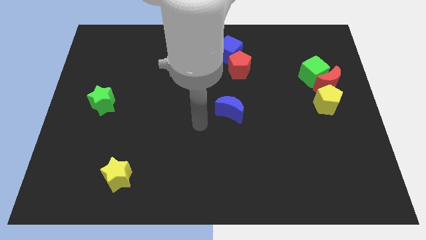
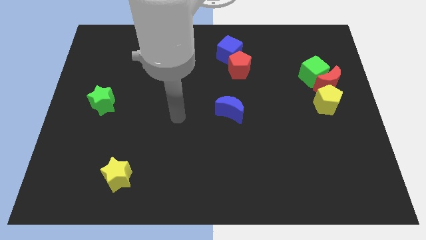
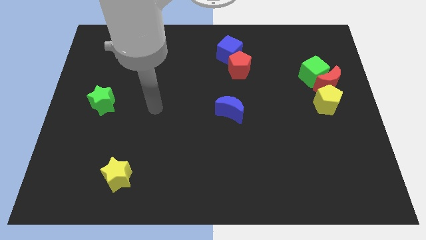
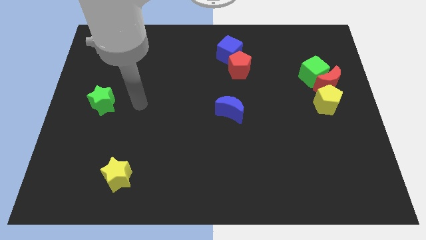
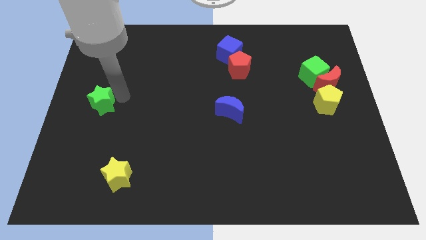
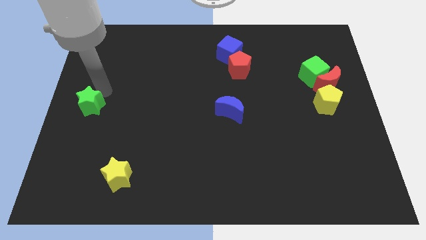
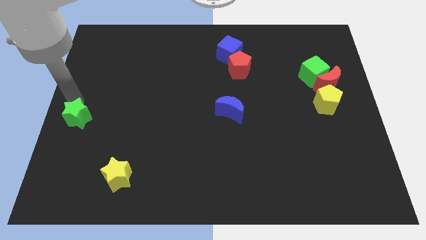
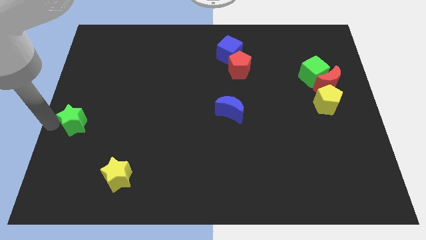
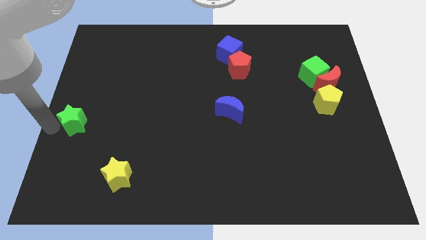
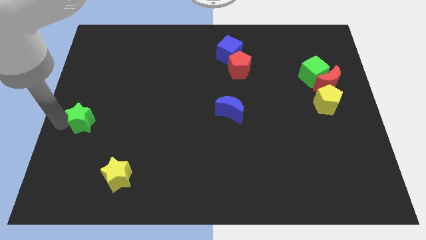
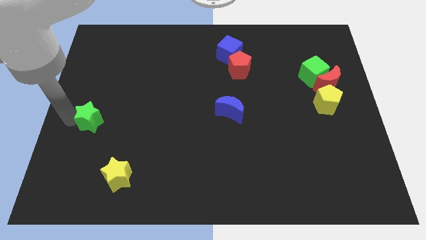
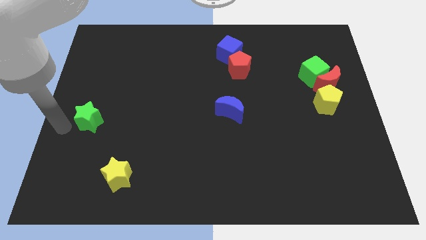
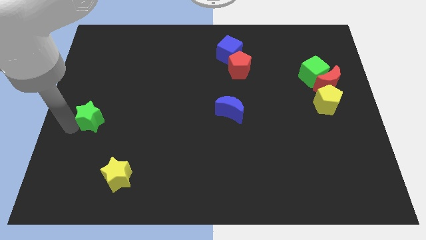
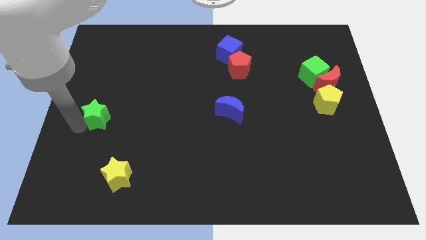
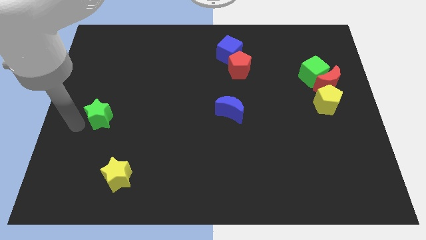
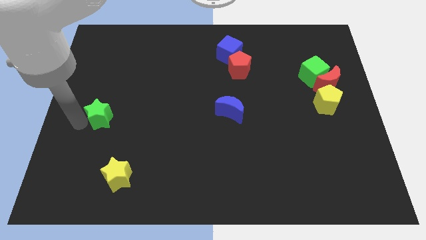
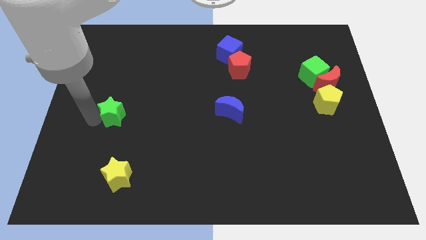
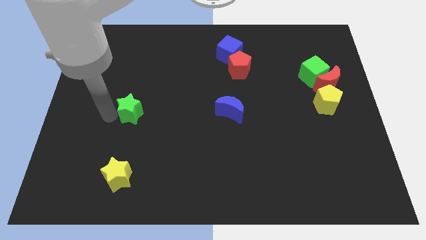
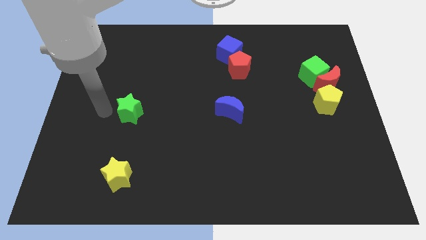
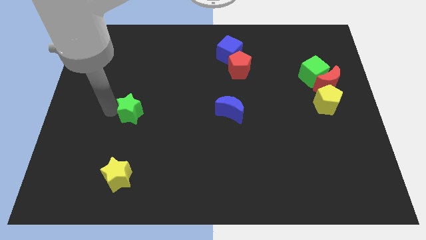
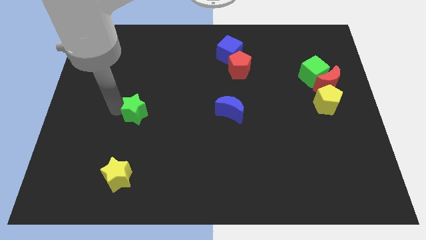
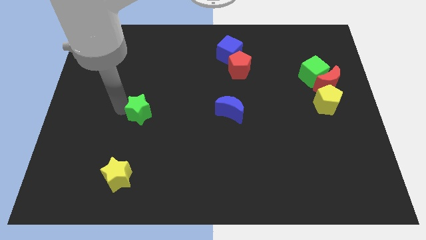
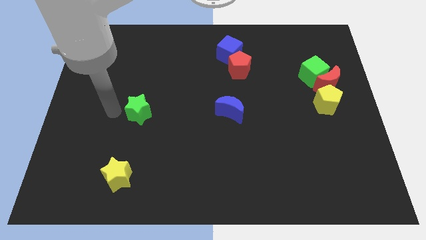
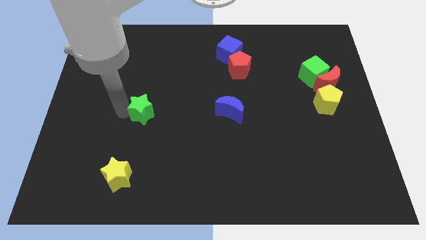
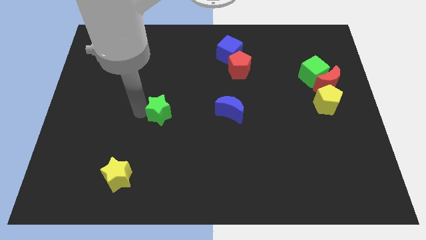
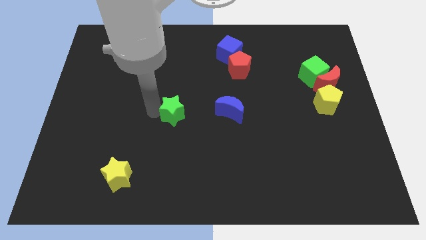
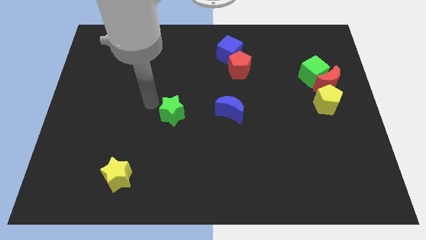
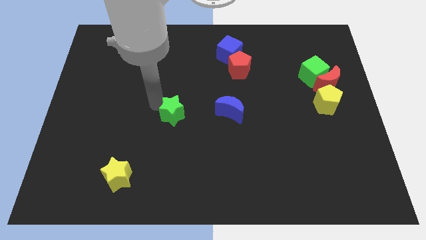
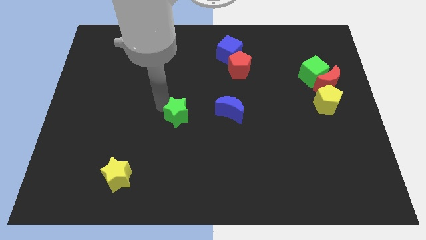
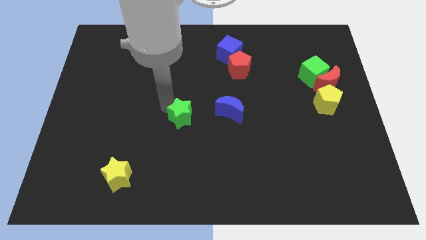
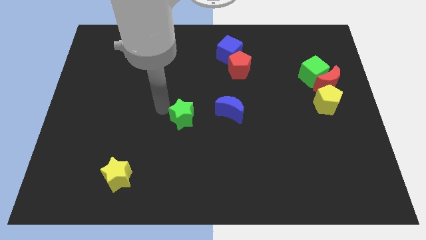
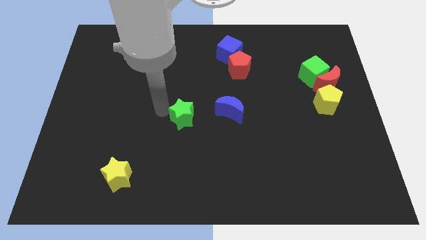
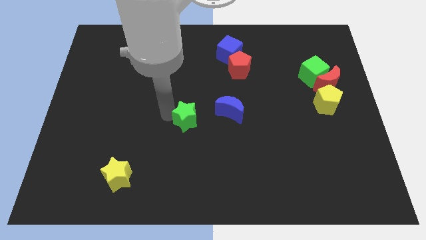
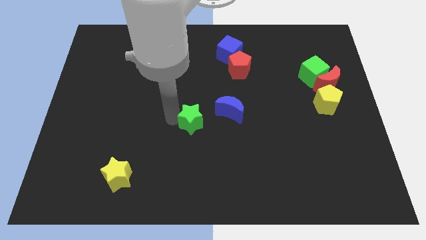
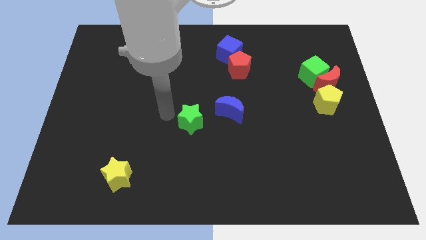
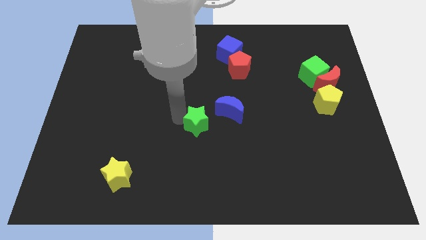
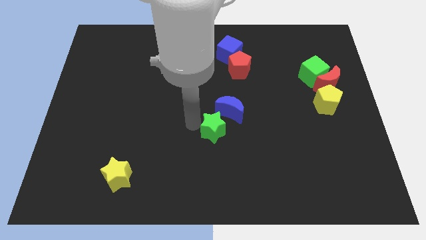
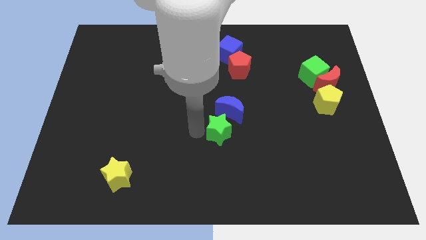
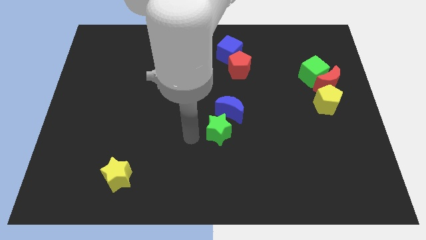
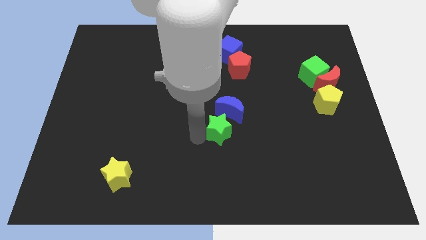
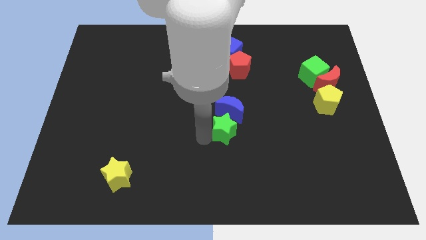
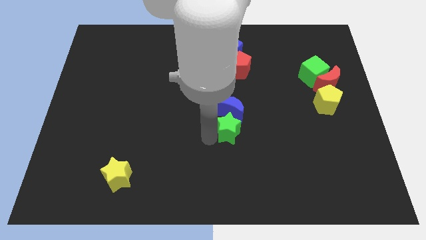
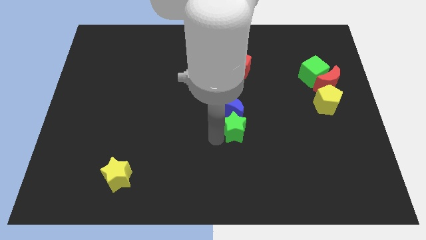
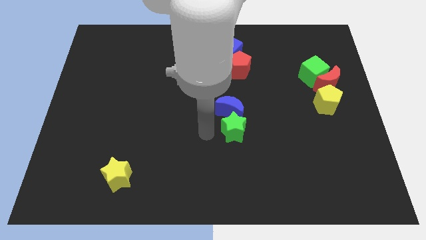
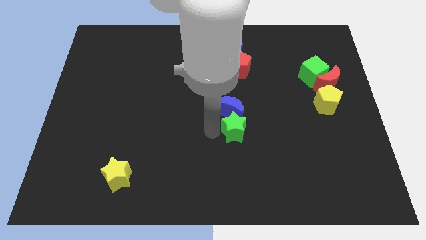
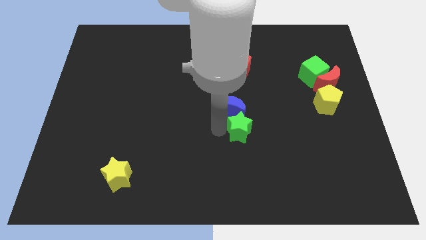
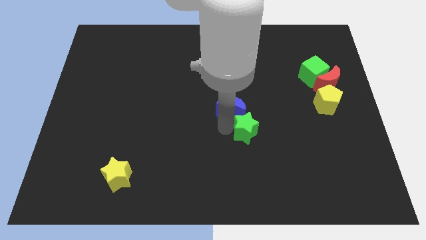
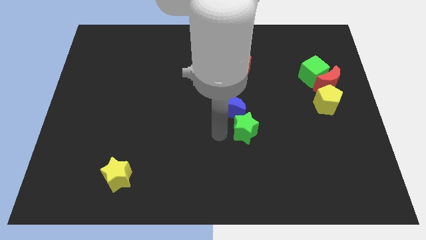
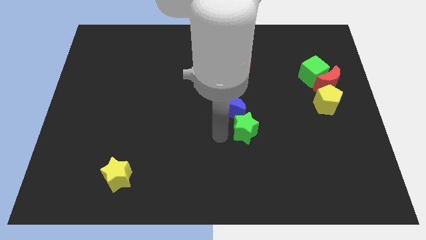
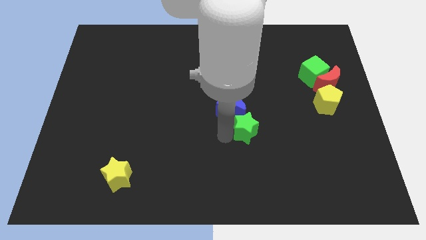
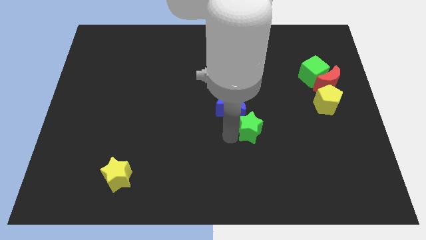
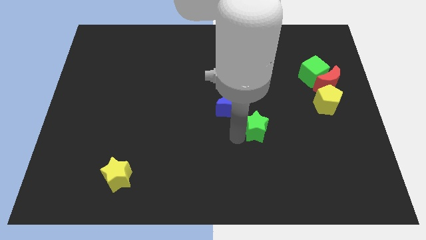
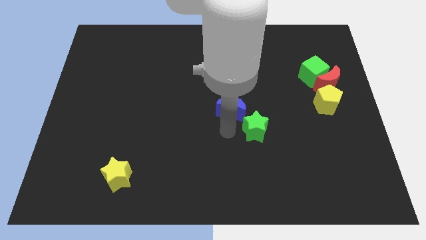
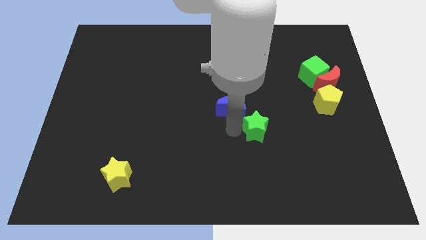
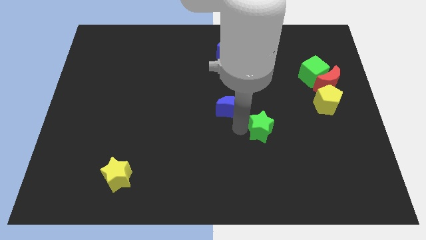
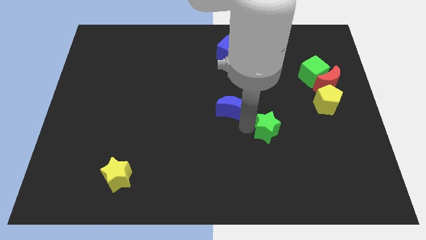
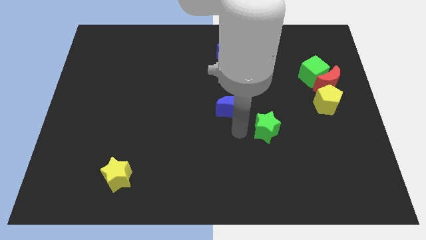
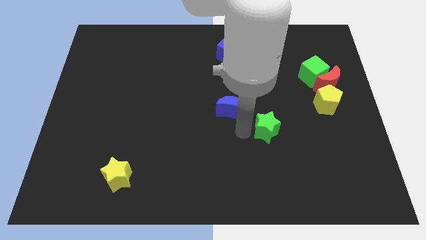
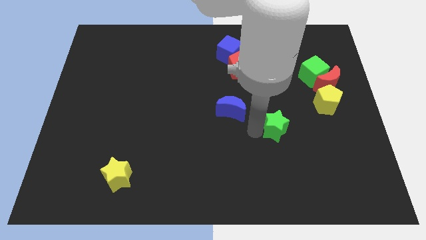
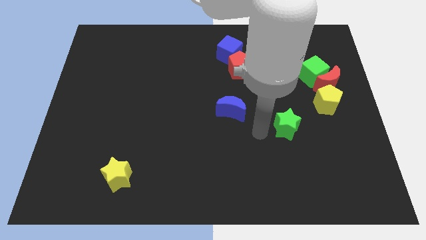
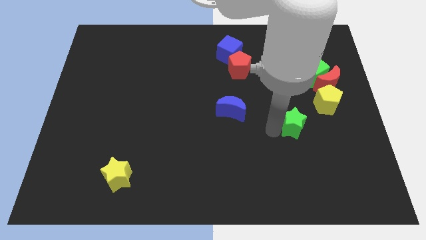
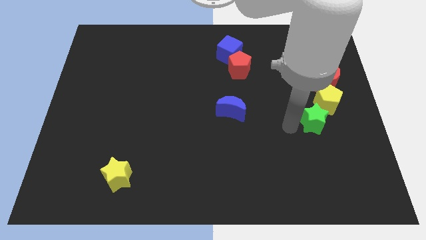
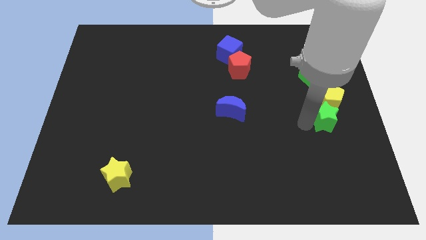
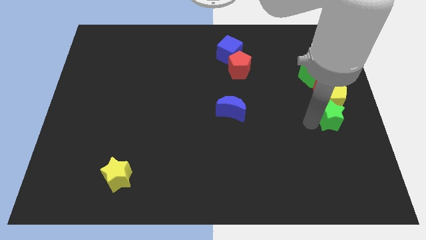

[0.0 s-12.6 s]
put the green star to the center right

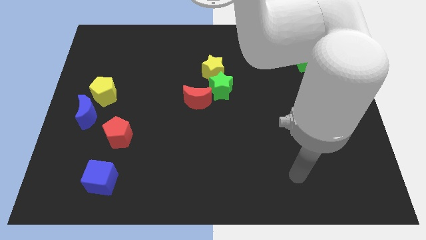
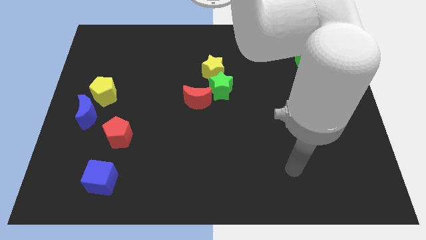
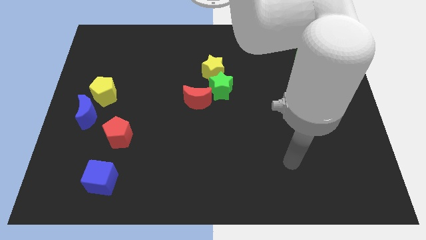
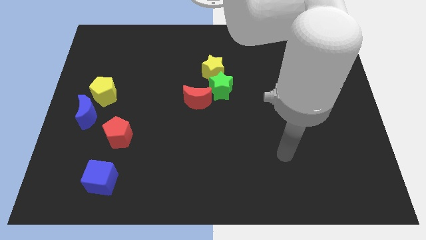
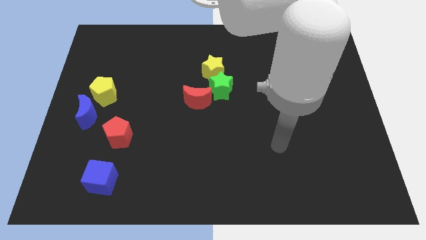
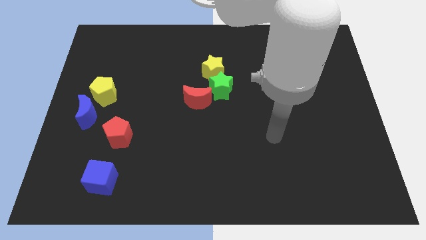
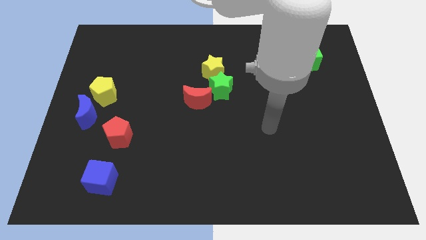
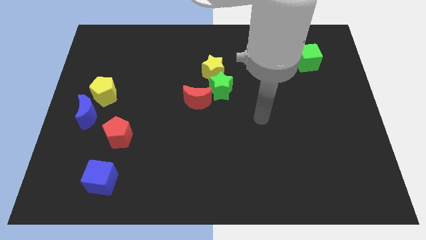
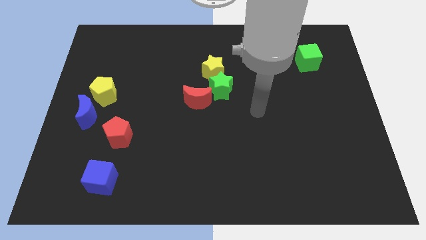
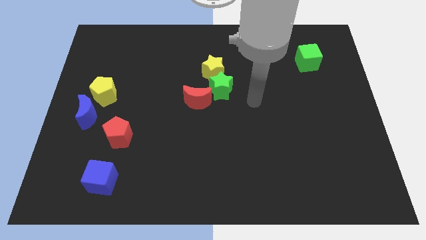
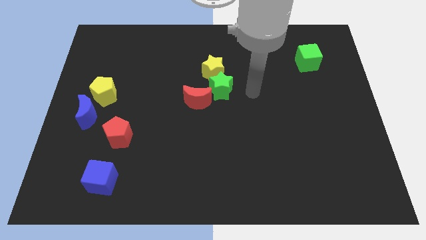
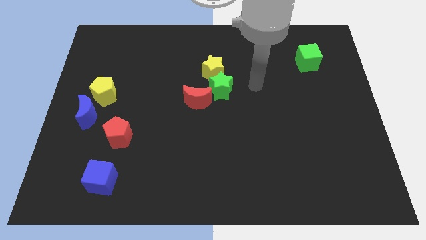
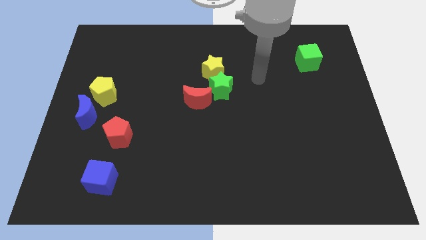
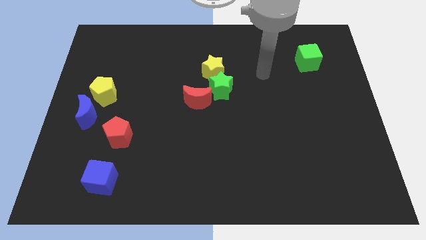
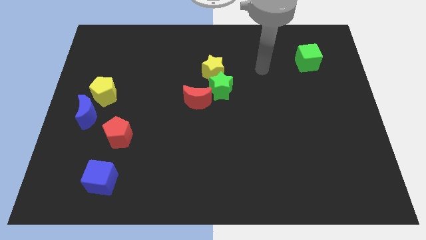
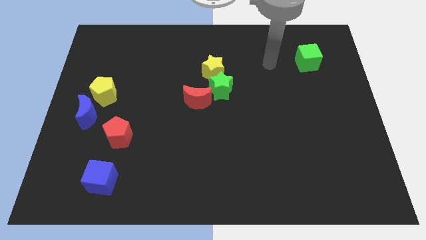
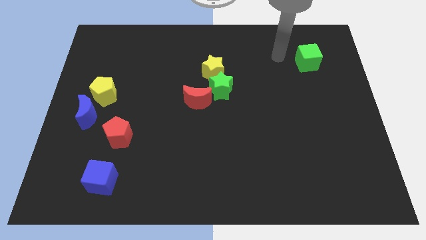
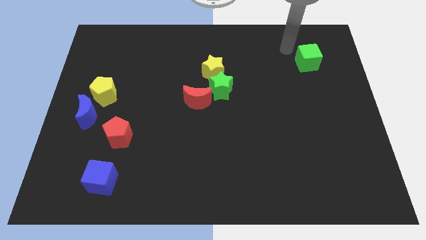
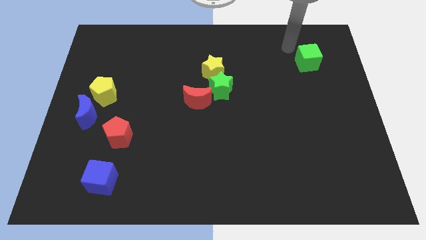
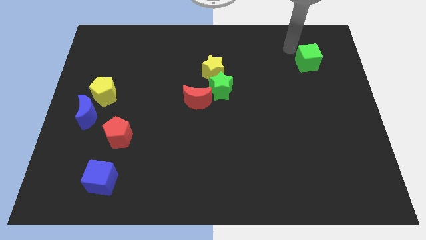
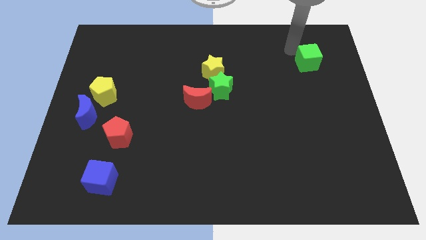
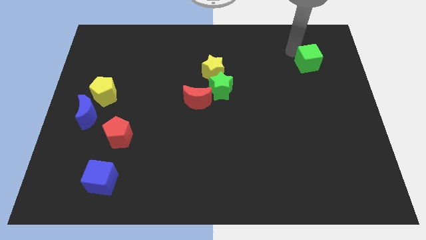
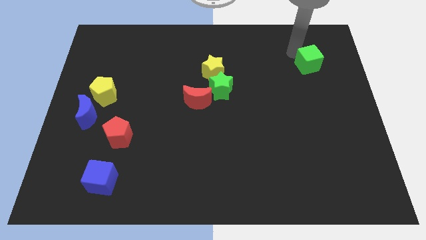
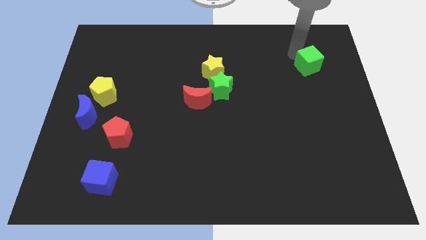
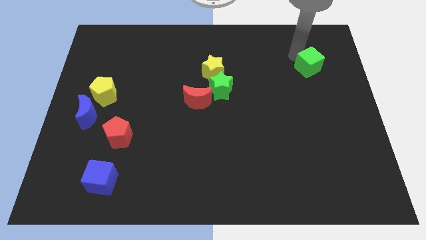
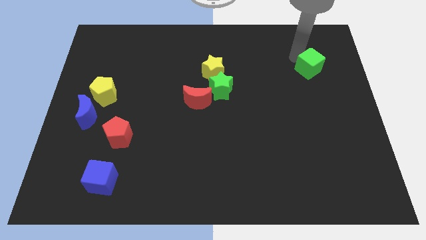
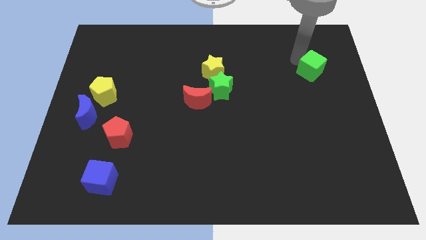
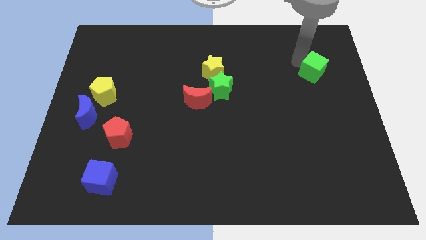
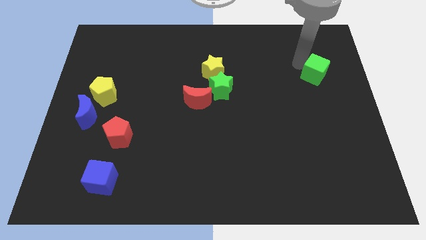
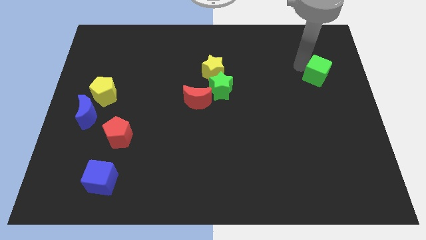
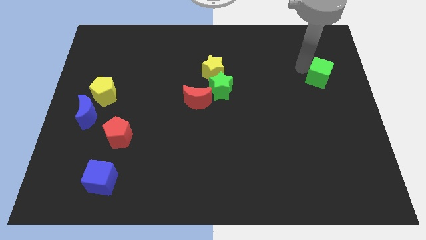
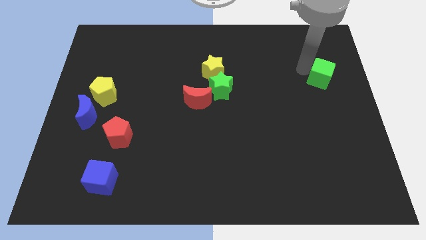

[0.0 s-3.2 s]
slide the green cube to the center right
